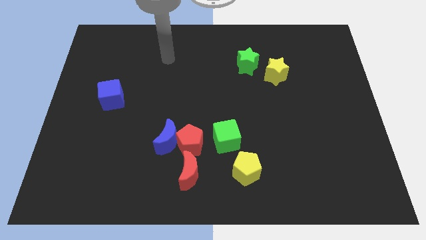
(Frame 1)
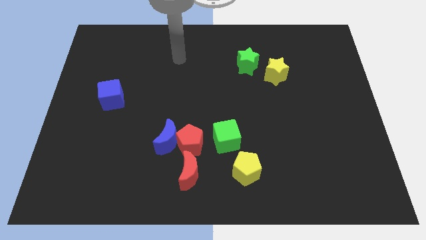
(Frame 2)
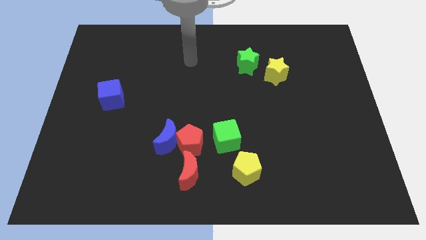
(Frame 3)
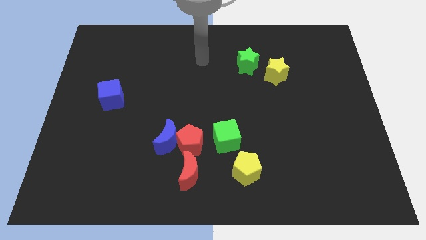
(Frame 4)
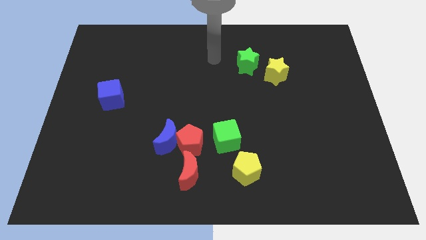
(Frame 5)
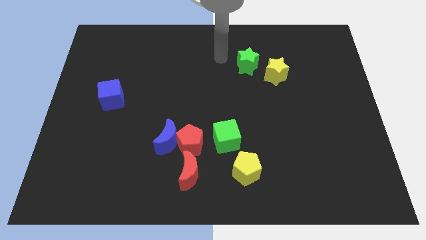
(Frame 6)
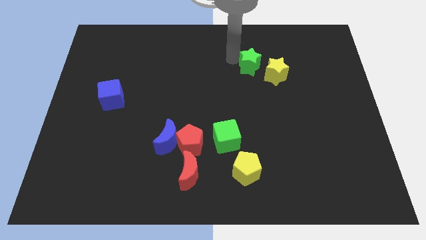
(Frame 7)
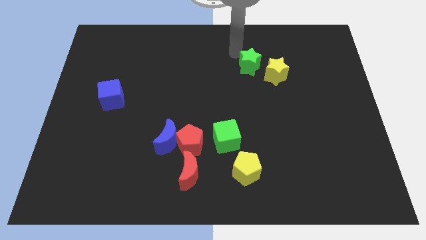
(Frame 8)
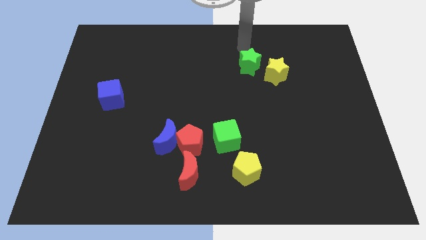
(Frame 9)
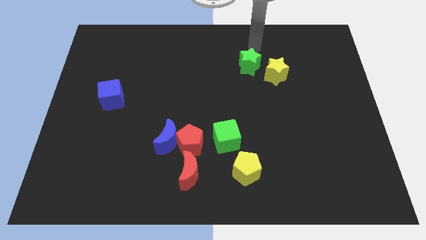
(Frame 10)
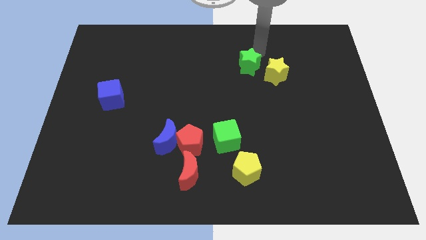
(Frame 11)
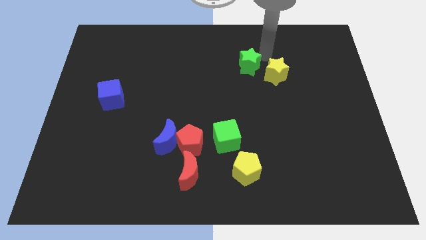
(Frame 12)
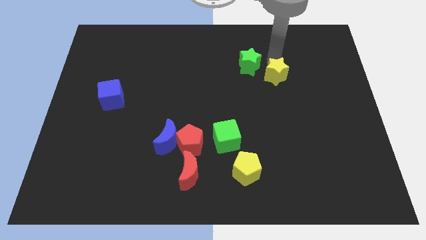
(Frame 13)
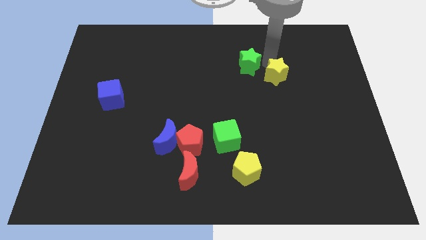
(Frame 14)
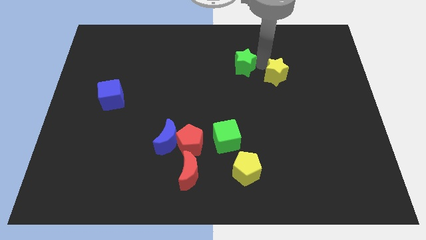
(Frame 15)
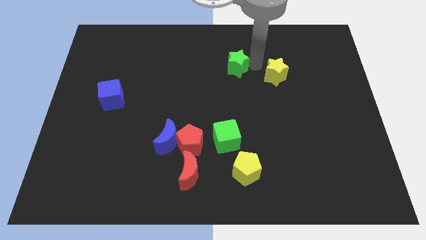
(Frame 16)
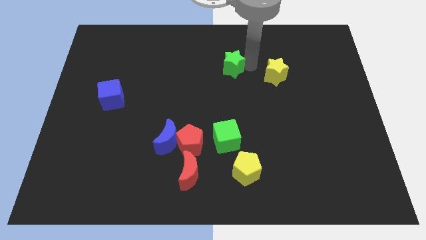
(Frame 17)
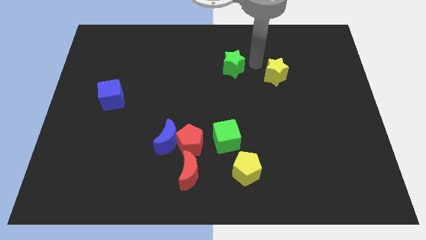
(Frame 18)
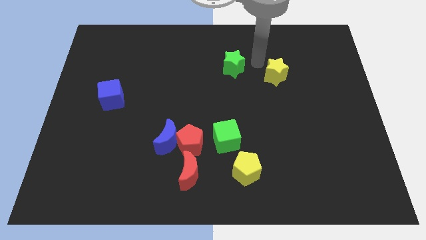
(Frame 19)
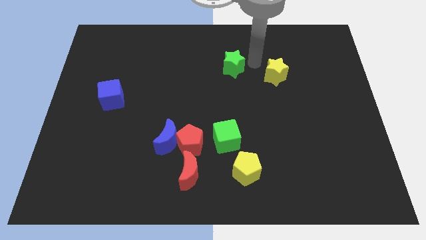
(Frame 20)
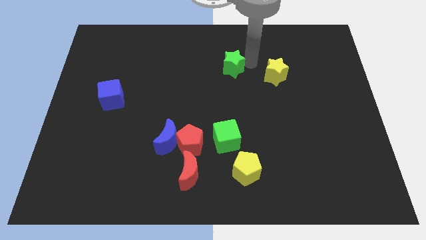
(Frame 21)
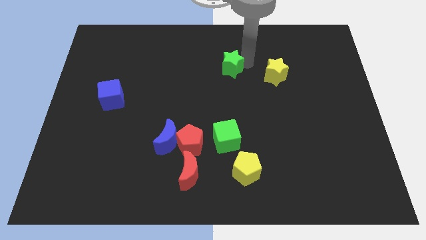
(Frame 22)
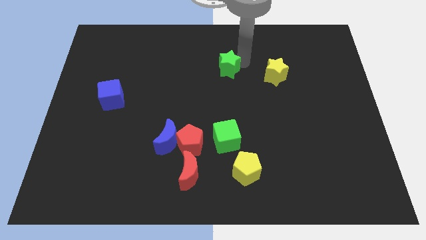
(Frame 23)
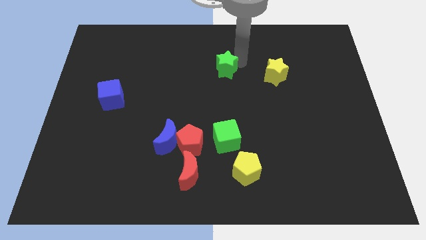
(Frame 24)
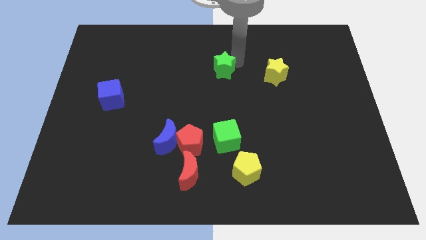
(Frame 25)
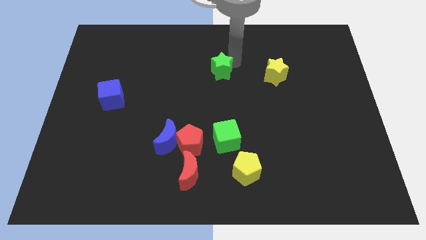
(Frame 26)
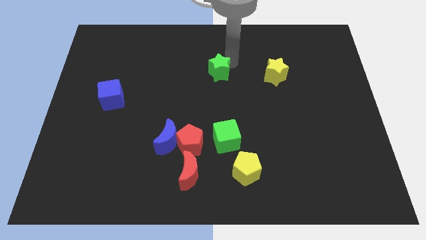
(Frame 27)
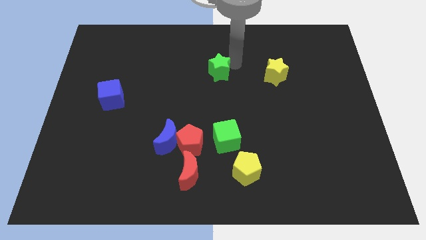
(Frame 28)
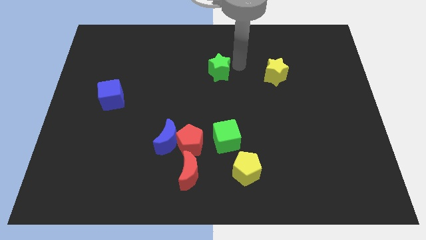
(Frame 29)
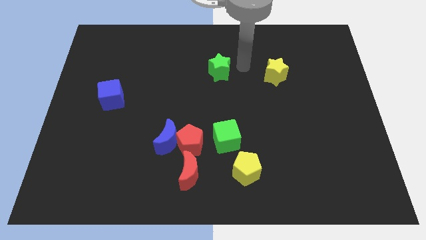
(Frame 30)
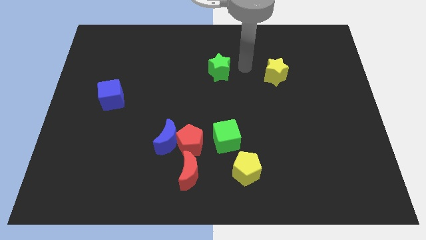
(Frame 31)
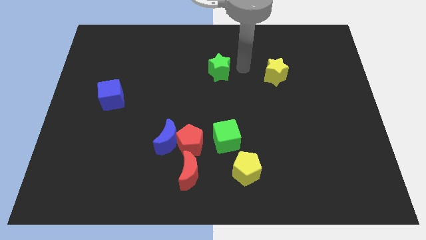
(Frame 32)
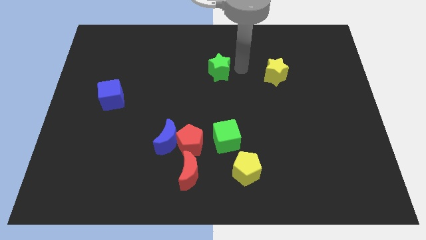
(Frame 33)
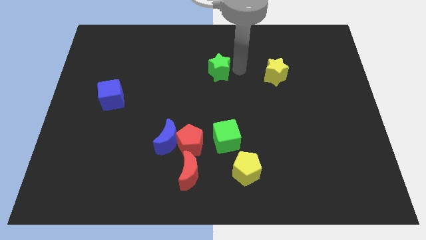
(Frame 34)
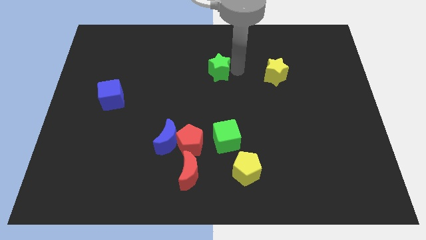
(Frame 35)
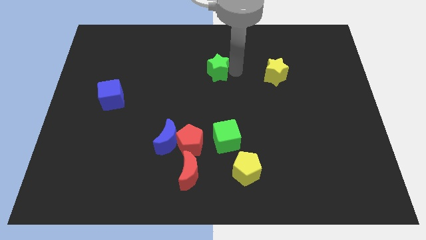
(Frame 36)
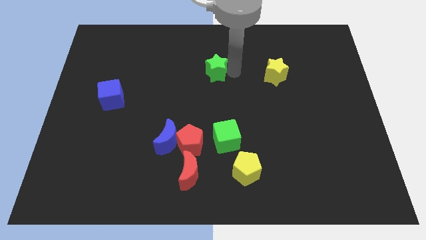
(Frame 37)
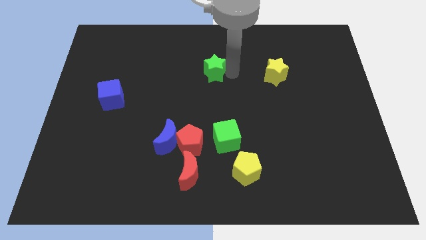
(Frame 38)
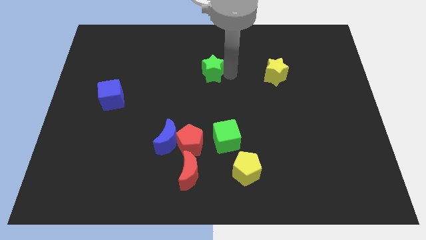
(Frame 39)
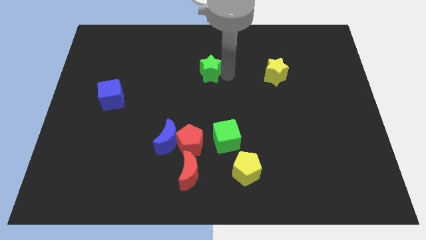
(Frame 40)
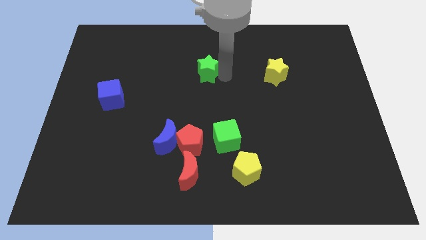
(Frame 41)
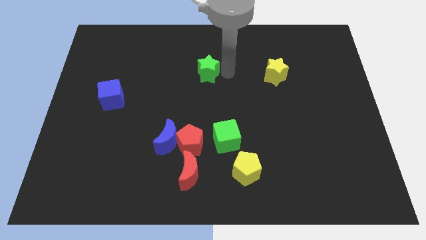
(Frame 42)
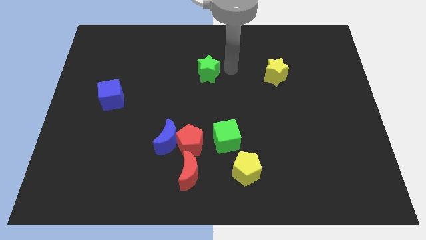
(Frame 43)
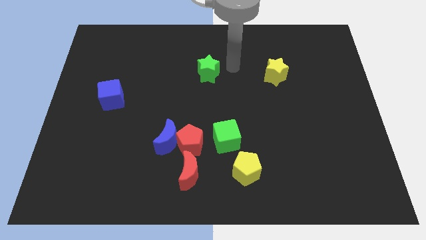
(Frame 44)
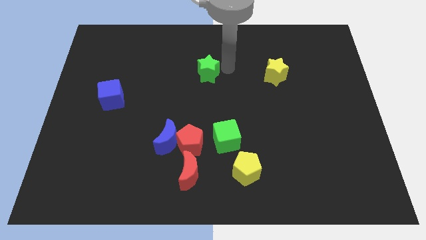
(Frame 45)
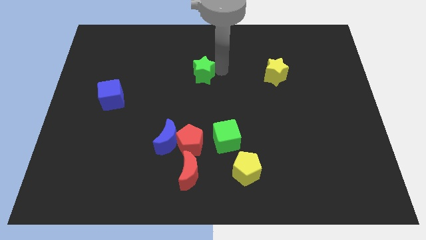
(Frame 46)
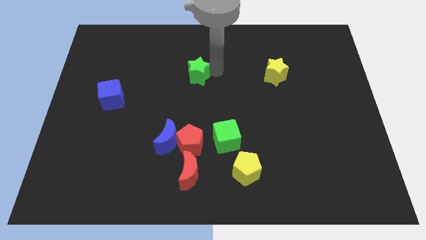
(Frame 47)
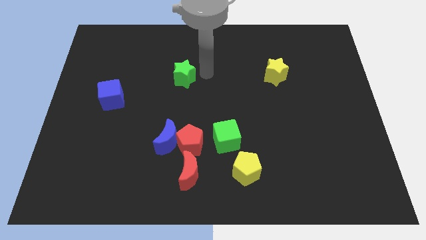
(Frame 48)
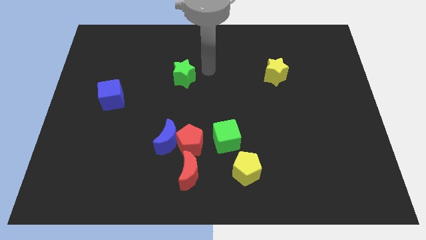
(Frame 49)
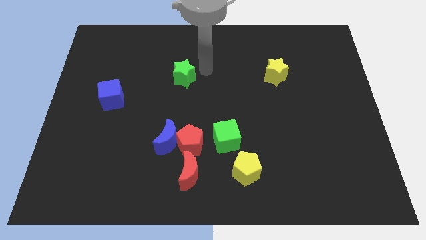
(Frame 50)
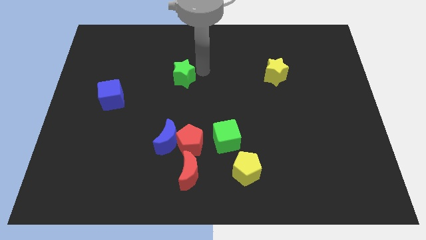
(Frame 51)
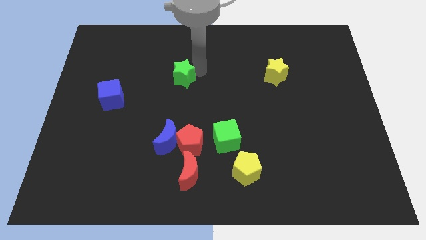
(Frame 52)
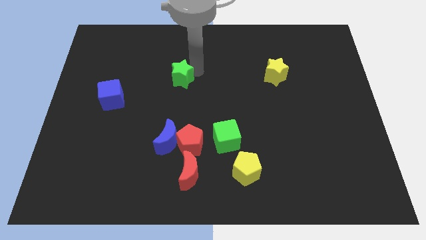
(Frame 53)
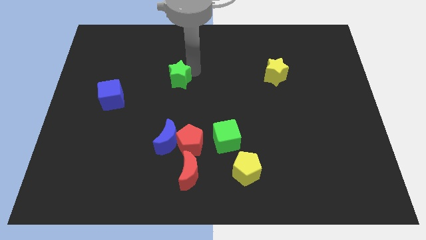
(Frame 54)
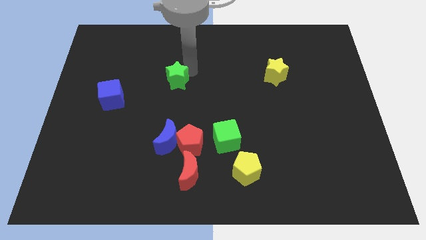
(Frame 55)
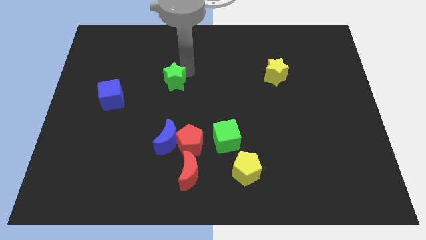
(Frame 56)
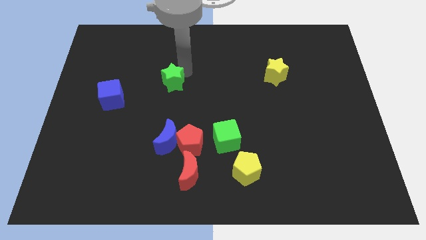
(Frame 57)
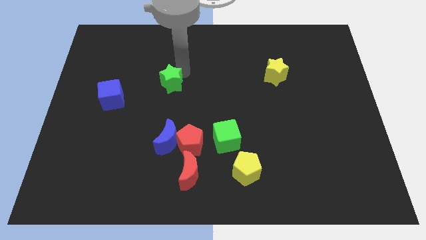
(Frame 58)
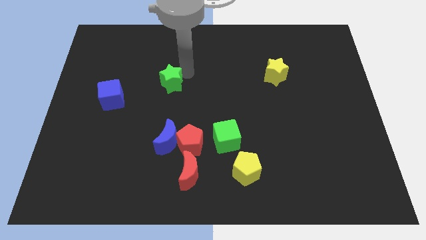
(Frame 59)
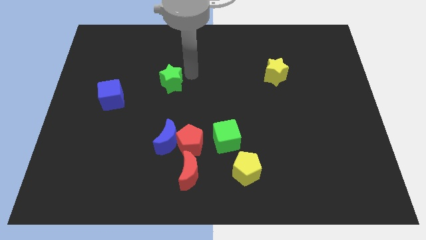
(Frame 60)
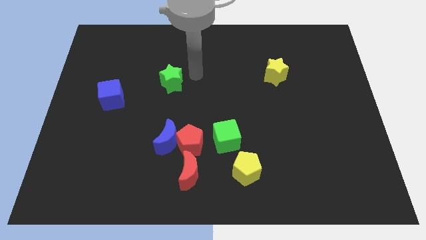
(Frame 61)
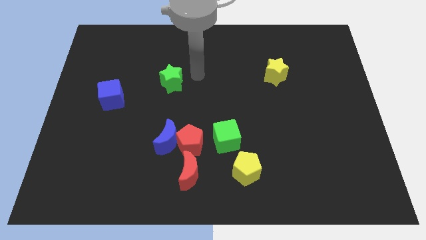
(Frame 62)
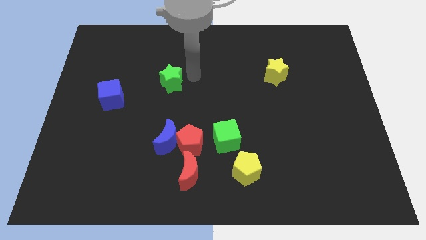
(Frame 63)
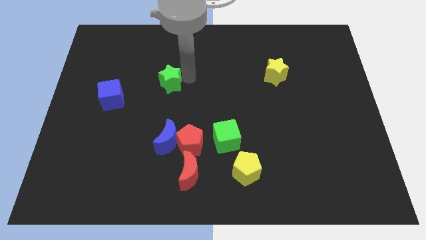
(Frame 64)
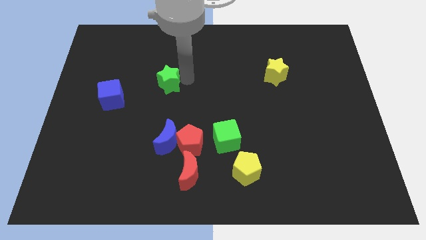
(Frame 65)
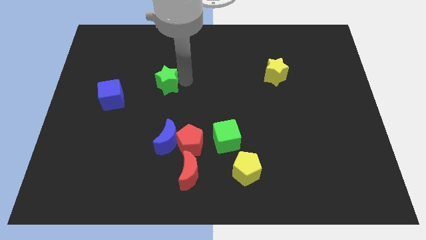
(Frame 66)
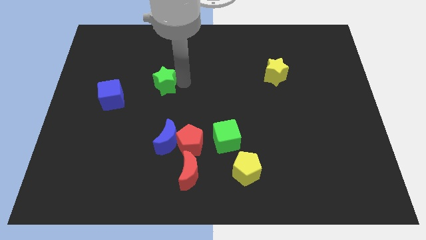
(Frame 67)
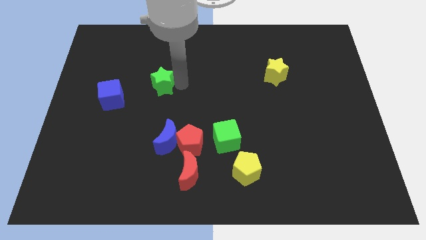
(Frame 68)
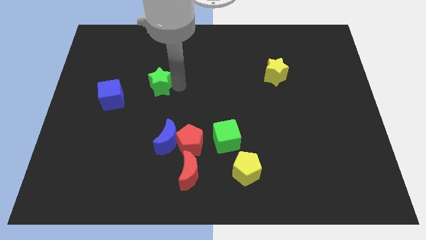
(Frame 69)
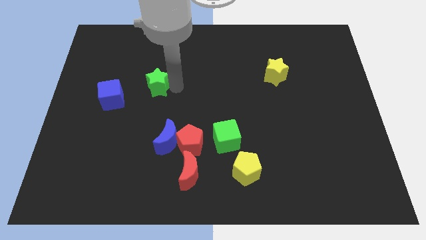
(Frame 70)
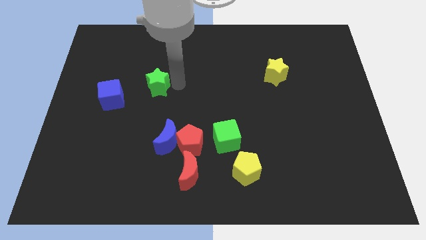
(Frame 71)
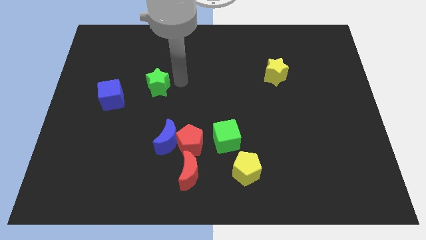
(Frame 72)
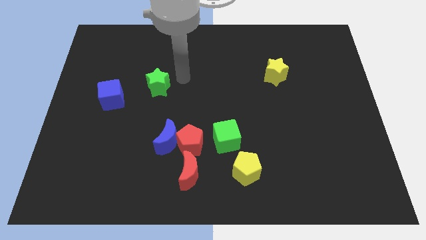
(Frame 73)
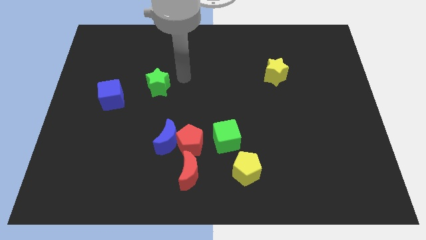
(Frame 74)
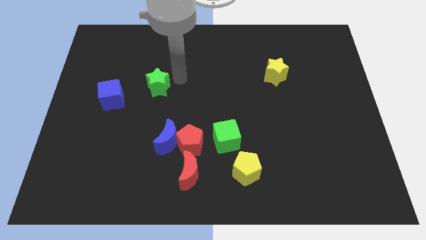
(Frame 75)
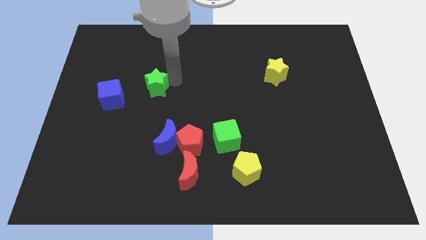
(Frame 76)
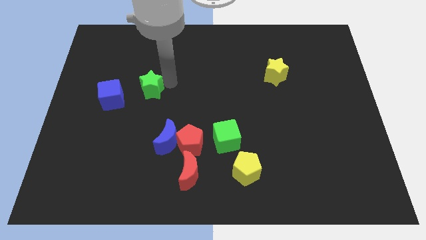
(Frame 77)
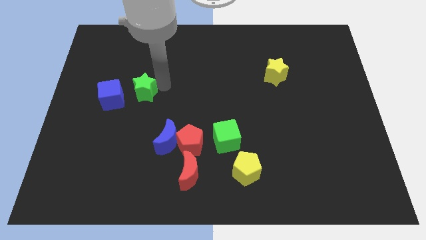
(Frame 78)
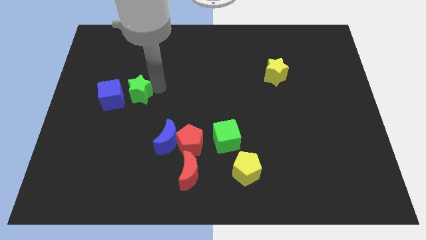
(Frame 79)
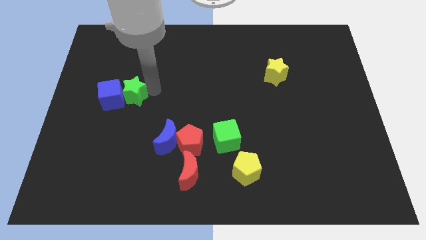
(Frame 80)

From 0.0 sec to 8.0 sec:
push the green star next to the blue cube

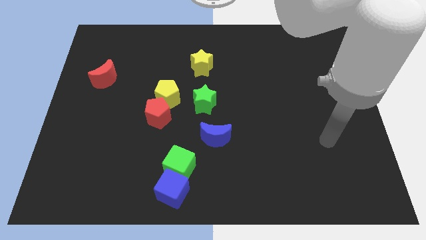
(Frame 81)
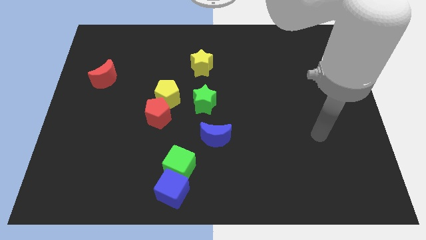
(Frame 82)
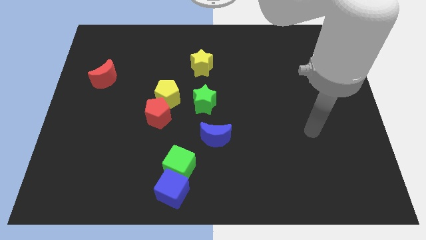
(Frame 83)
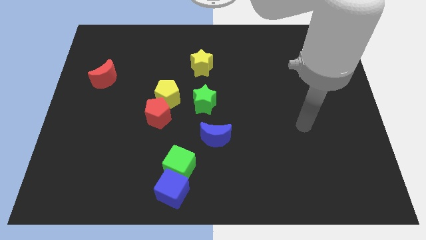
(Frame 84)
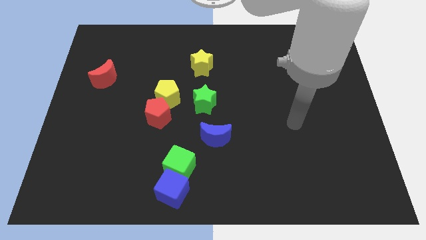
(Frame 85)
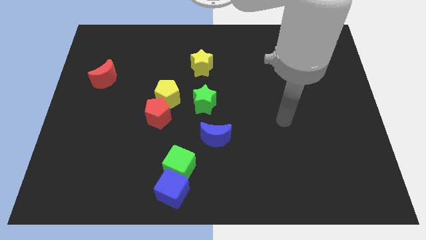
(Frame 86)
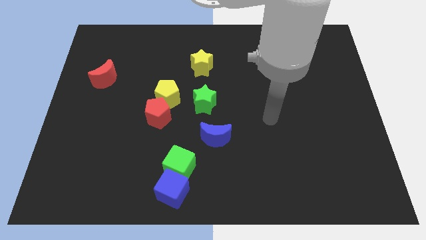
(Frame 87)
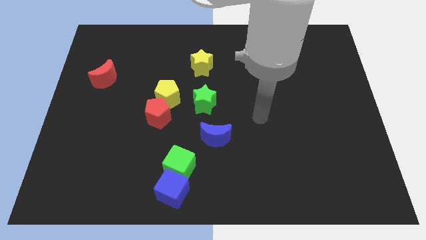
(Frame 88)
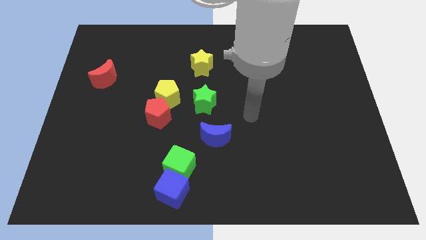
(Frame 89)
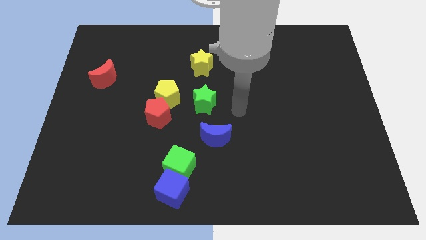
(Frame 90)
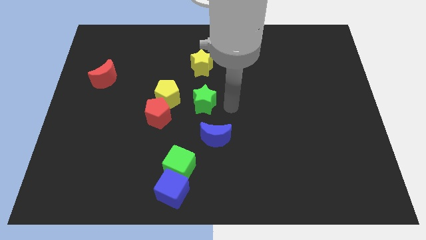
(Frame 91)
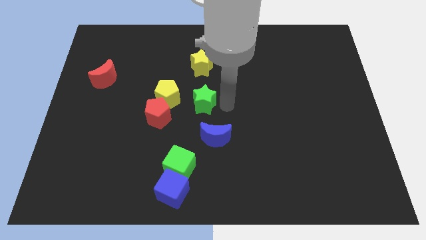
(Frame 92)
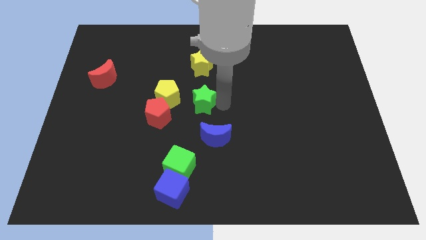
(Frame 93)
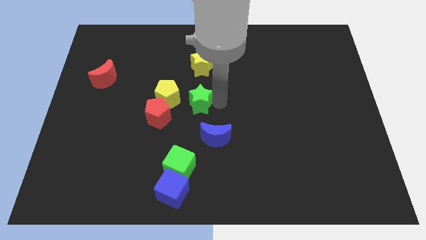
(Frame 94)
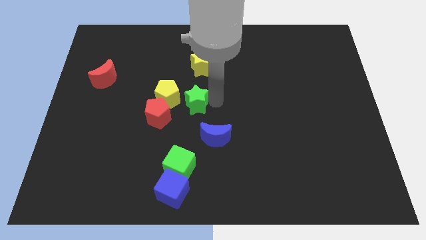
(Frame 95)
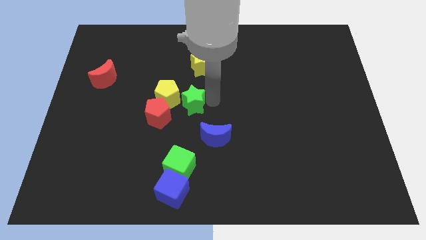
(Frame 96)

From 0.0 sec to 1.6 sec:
slide the green star towards the yellow pentagon
